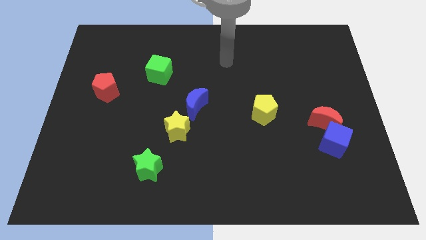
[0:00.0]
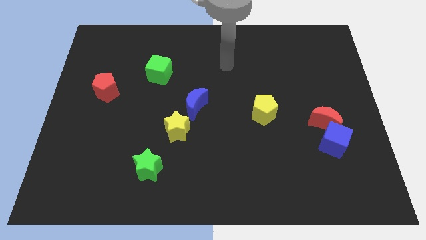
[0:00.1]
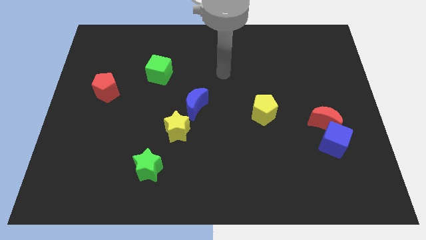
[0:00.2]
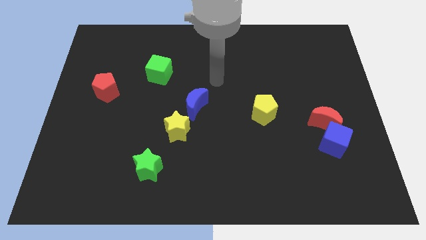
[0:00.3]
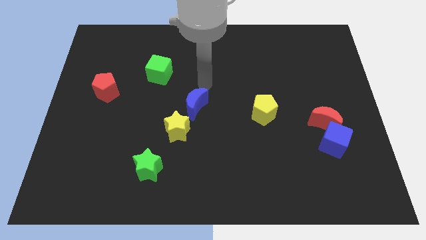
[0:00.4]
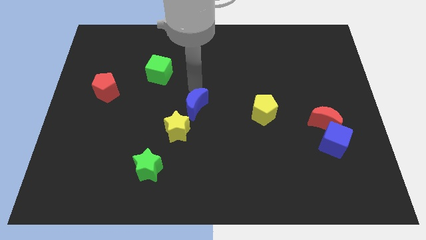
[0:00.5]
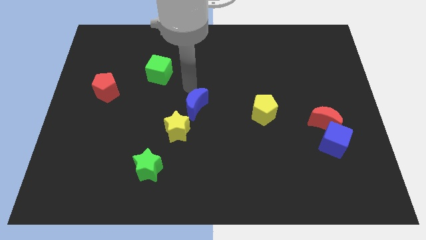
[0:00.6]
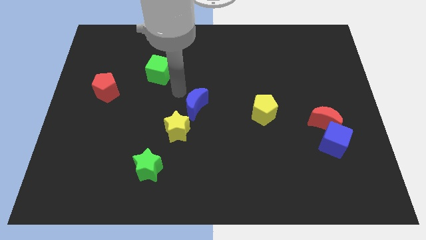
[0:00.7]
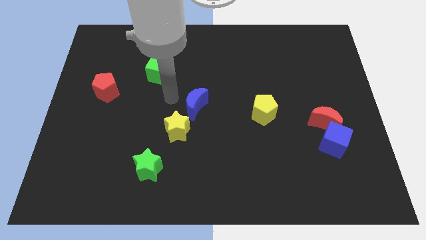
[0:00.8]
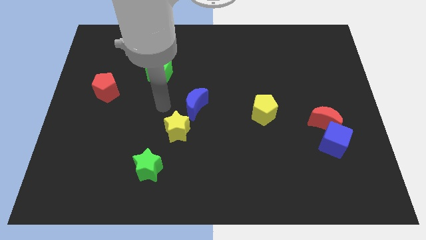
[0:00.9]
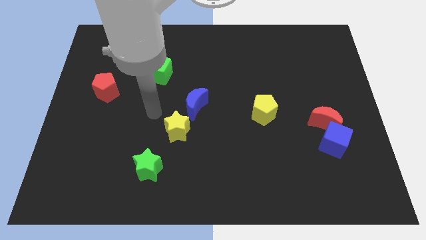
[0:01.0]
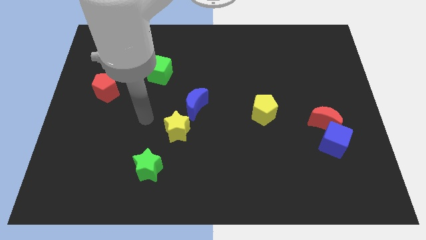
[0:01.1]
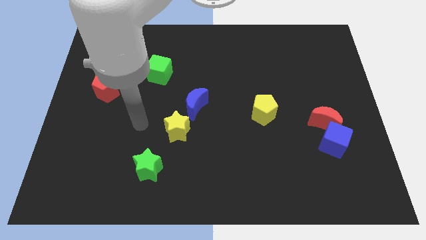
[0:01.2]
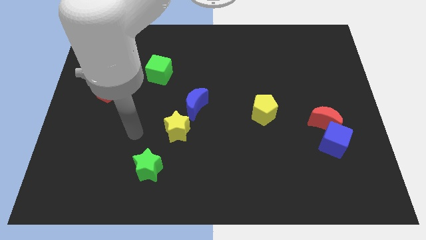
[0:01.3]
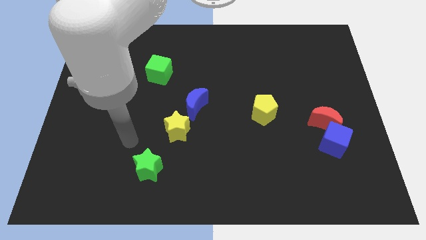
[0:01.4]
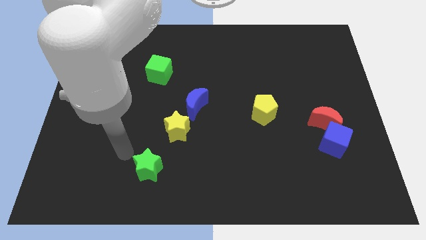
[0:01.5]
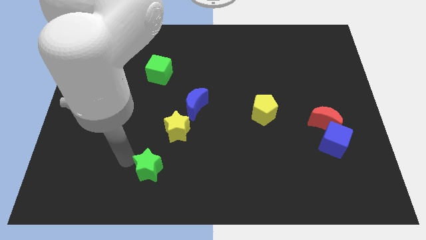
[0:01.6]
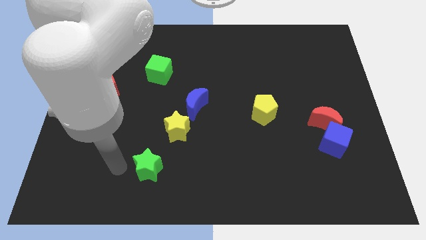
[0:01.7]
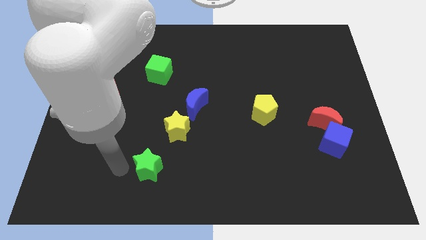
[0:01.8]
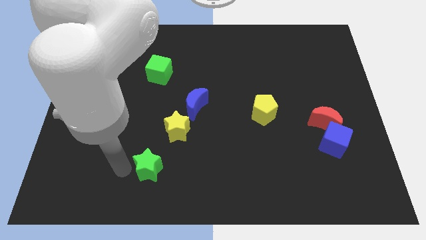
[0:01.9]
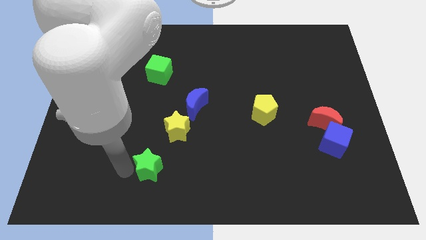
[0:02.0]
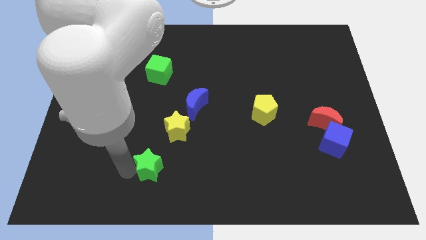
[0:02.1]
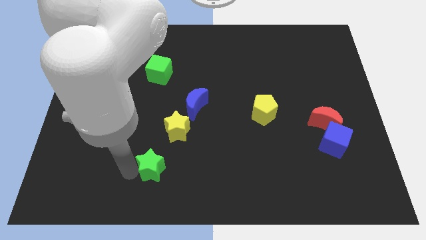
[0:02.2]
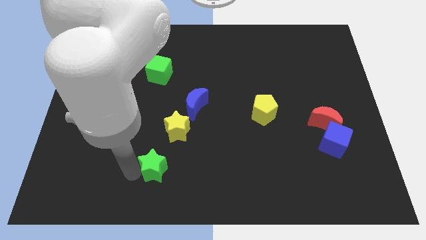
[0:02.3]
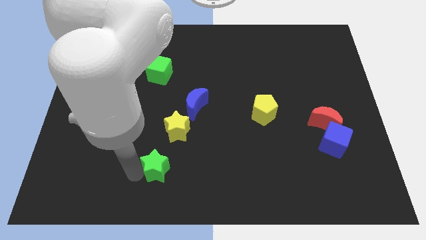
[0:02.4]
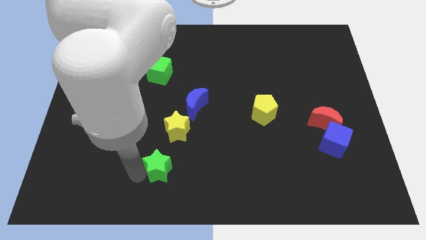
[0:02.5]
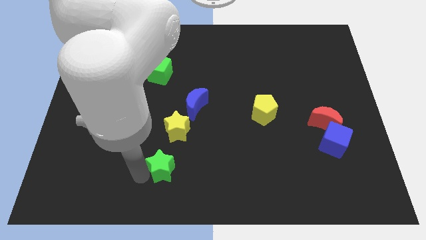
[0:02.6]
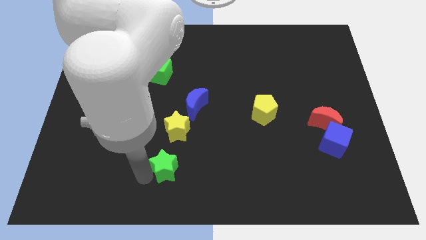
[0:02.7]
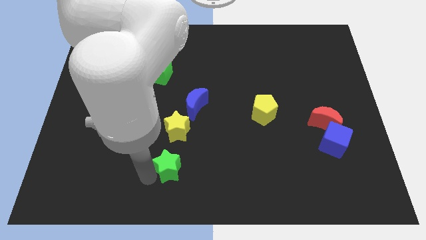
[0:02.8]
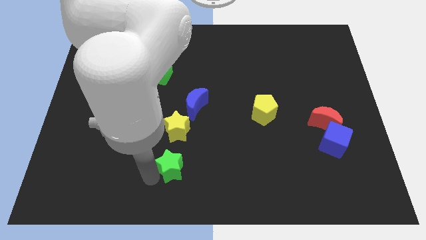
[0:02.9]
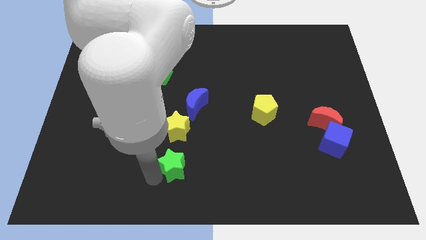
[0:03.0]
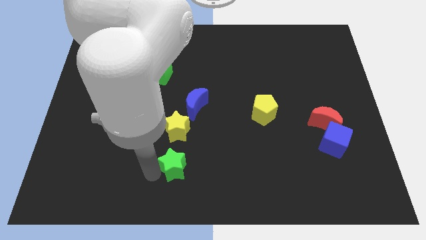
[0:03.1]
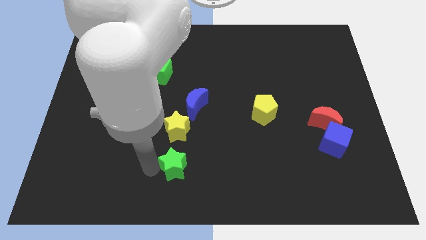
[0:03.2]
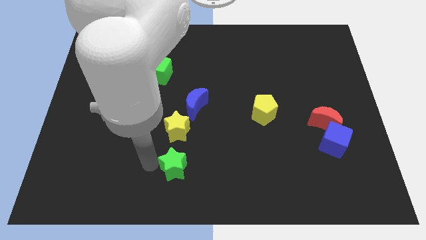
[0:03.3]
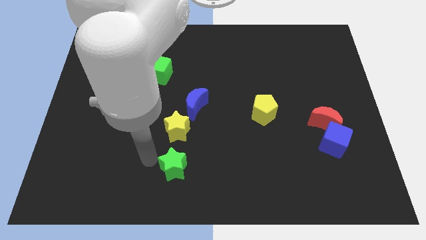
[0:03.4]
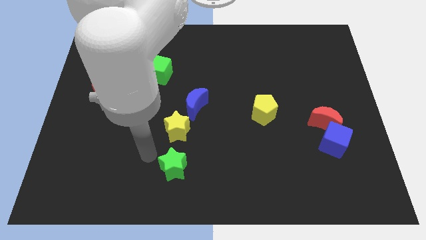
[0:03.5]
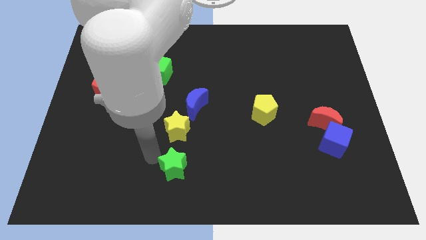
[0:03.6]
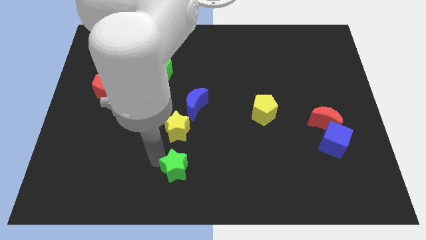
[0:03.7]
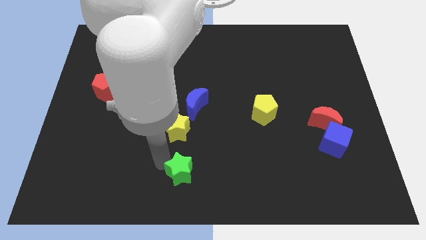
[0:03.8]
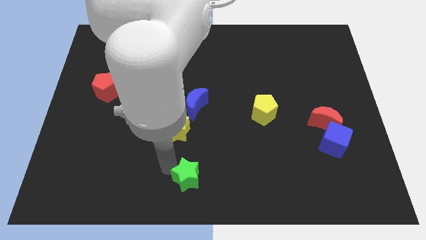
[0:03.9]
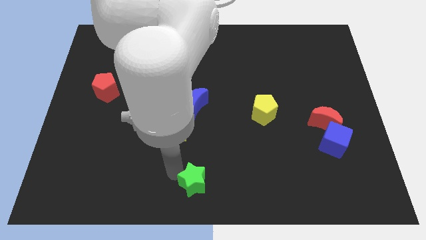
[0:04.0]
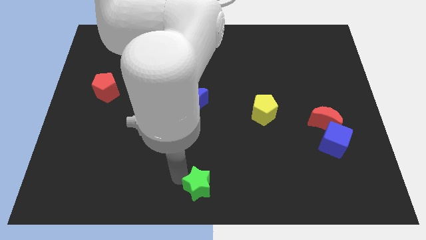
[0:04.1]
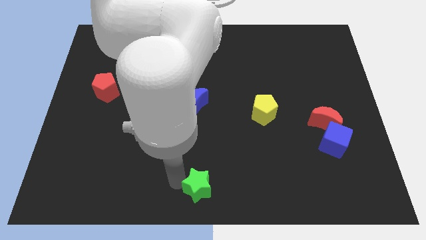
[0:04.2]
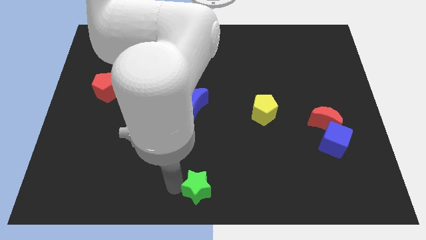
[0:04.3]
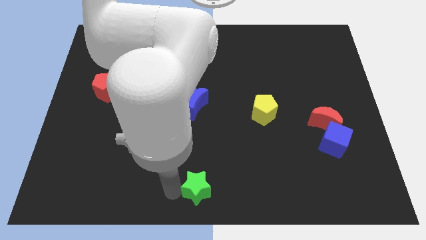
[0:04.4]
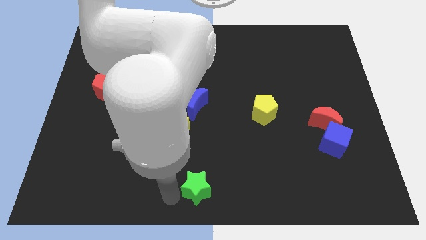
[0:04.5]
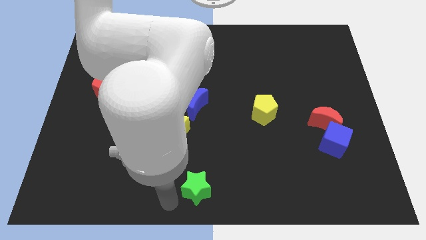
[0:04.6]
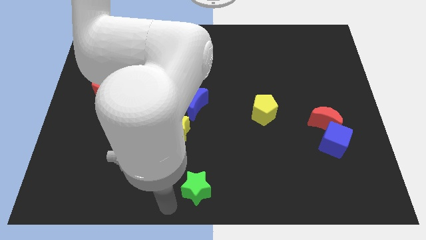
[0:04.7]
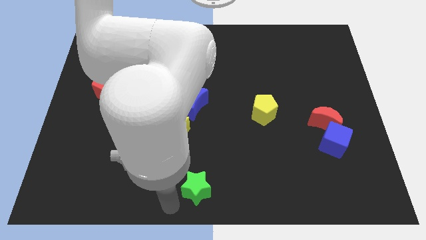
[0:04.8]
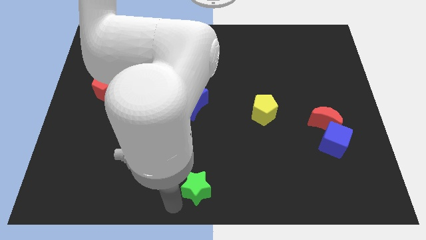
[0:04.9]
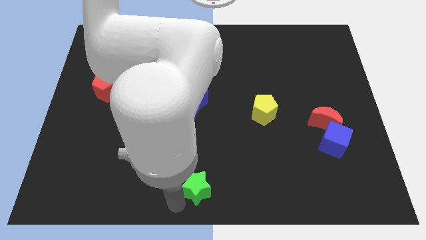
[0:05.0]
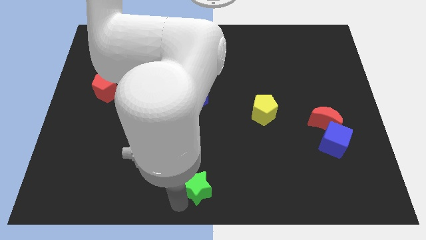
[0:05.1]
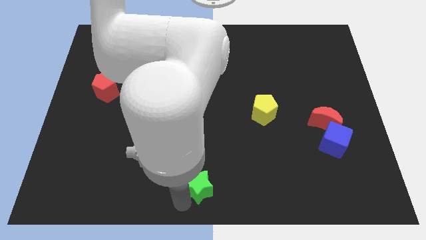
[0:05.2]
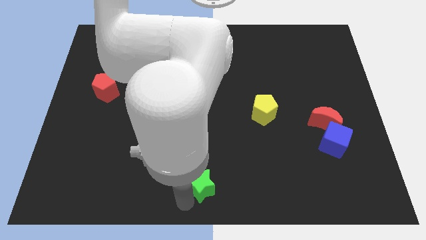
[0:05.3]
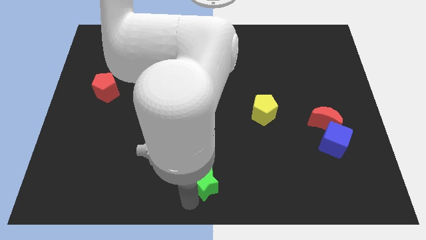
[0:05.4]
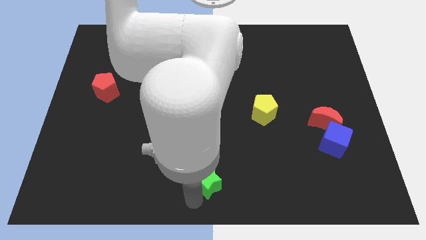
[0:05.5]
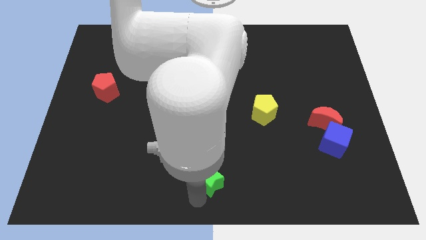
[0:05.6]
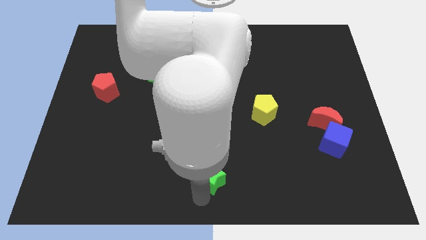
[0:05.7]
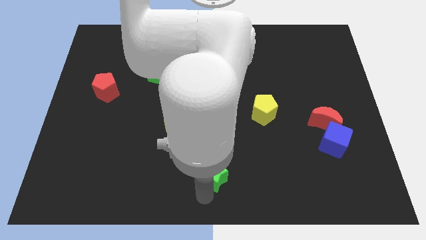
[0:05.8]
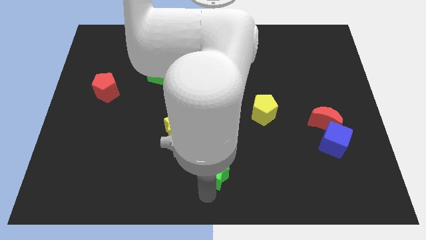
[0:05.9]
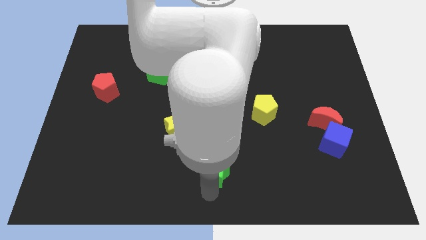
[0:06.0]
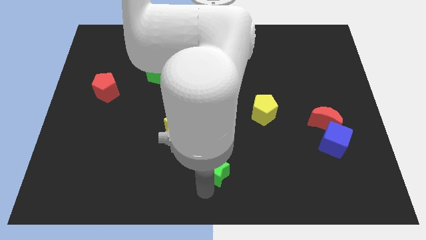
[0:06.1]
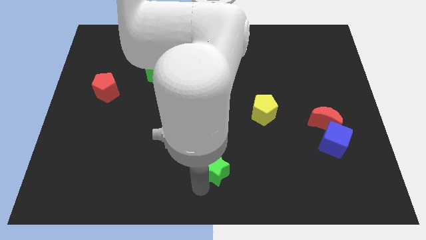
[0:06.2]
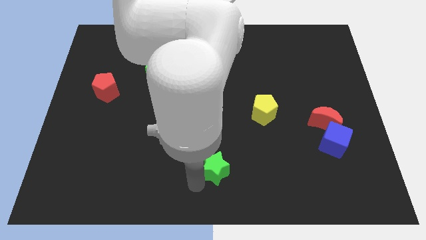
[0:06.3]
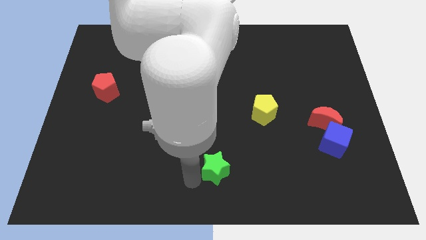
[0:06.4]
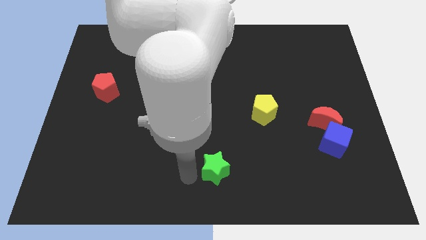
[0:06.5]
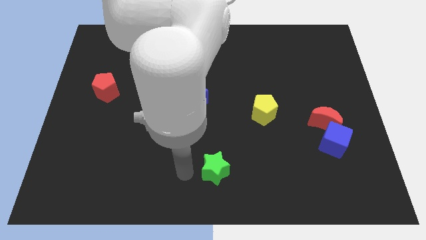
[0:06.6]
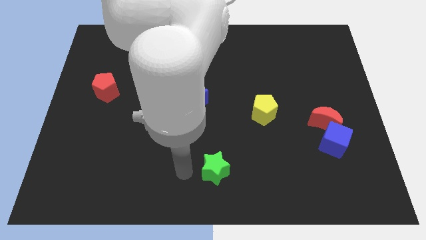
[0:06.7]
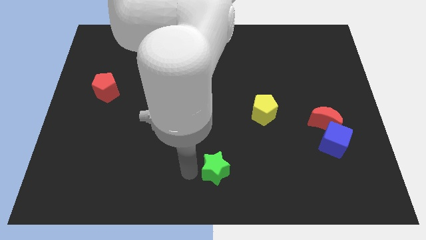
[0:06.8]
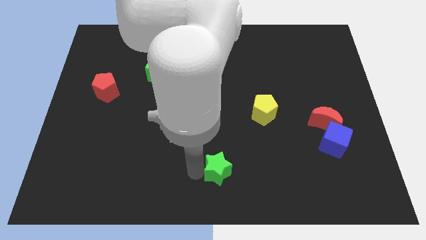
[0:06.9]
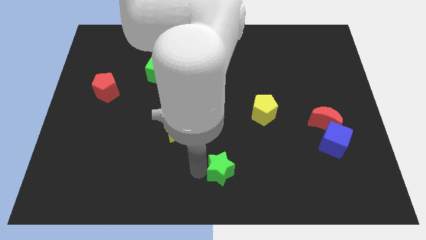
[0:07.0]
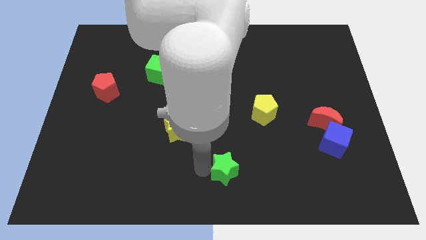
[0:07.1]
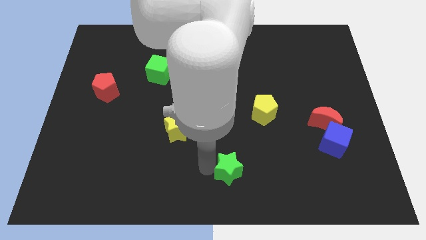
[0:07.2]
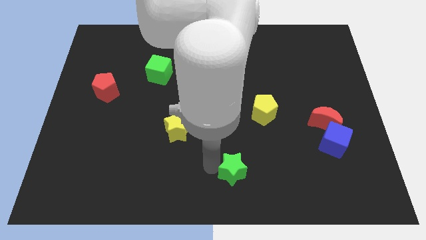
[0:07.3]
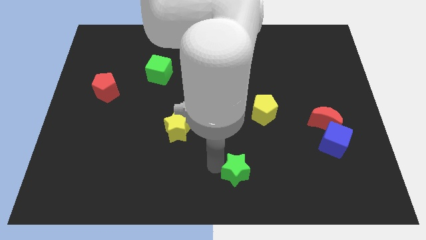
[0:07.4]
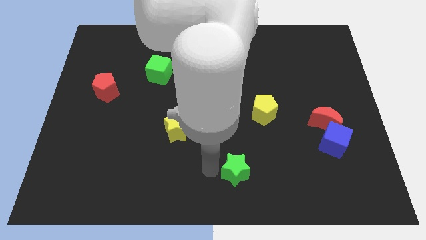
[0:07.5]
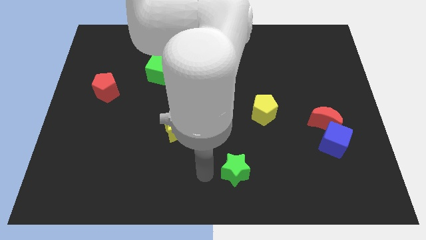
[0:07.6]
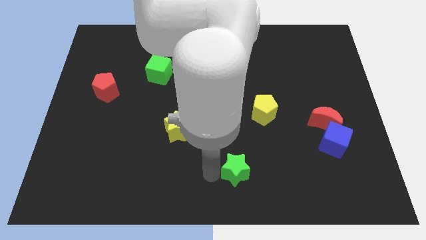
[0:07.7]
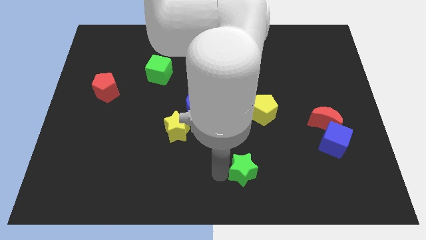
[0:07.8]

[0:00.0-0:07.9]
push the green star right

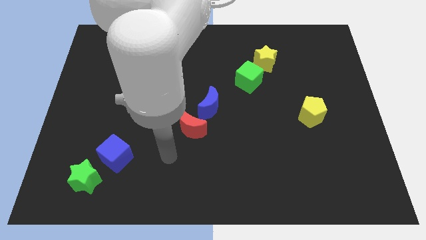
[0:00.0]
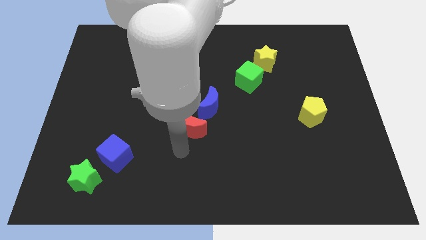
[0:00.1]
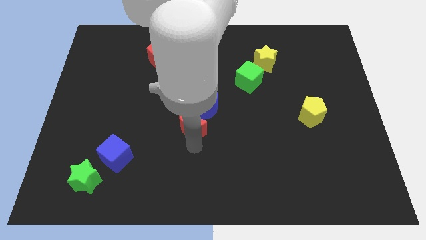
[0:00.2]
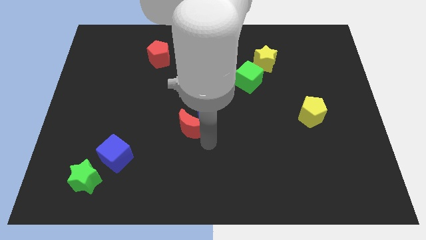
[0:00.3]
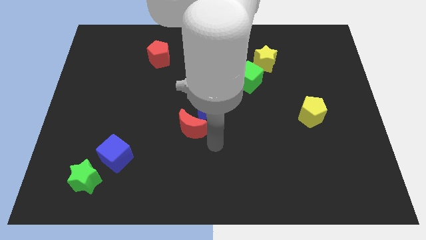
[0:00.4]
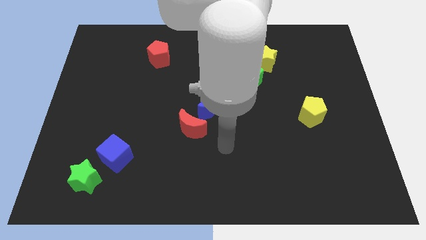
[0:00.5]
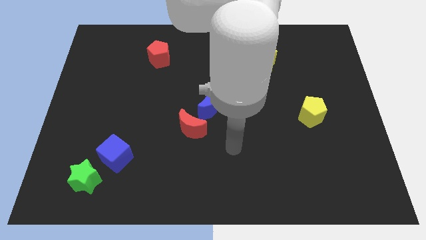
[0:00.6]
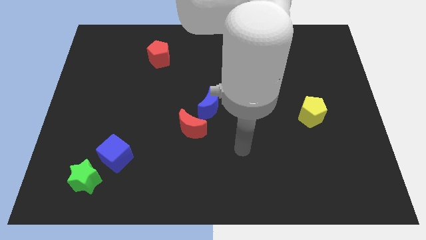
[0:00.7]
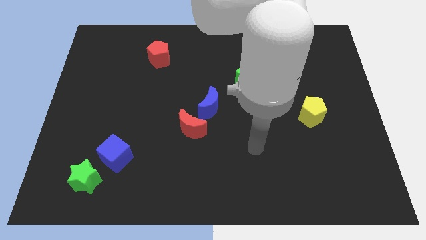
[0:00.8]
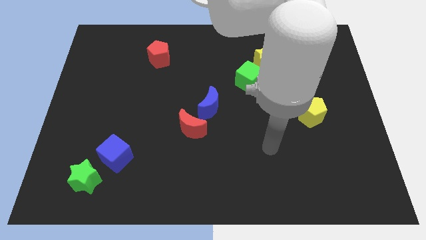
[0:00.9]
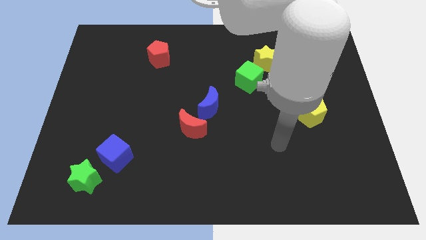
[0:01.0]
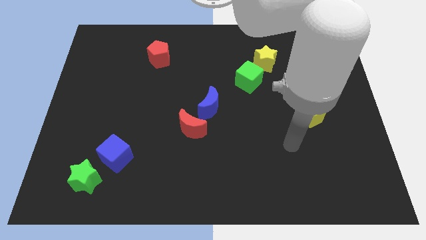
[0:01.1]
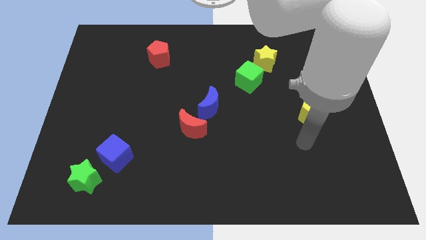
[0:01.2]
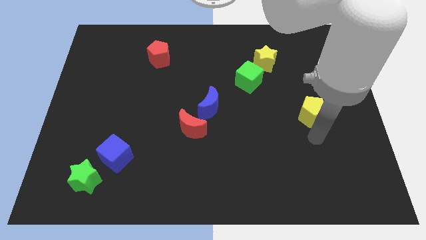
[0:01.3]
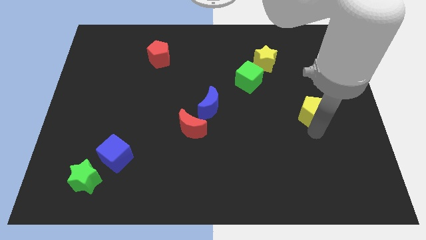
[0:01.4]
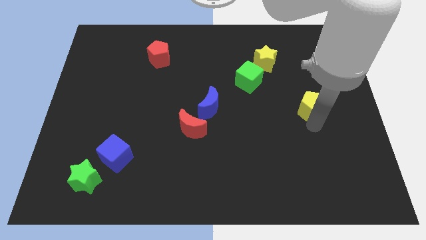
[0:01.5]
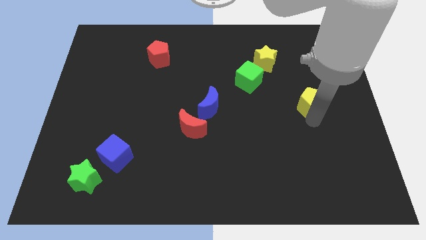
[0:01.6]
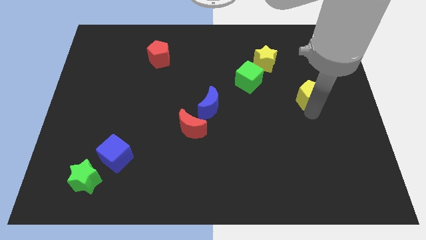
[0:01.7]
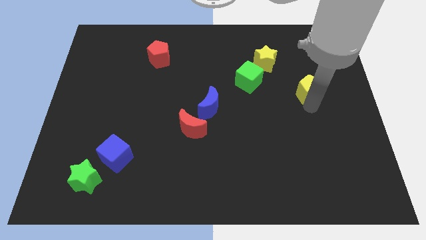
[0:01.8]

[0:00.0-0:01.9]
slide the yellow pentagon upwards a bit
